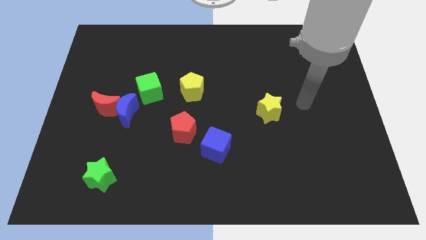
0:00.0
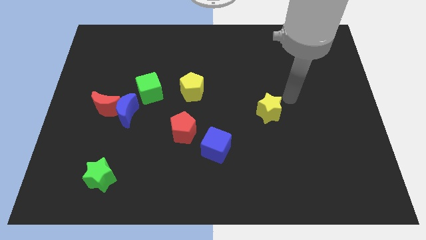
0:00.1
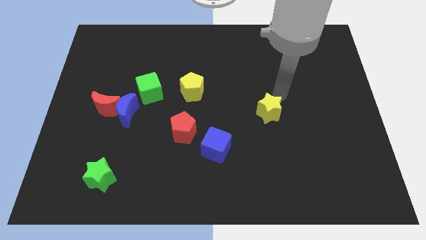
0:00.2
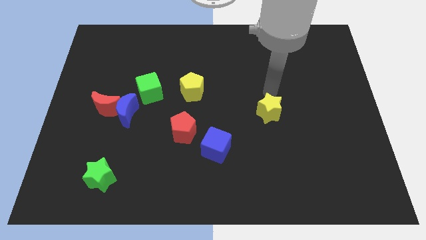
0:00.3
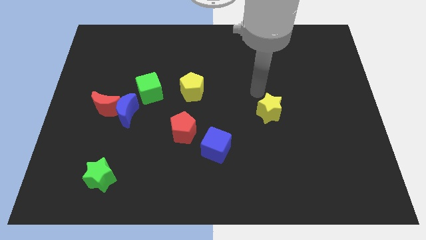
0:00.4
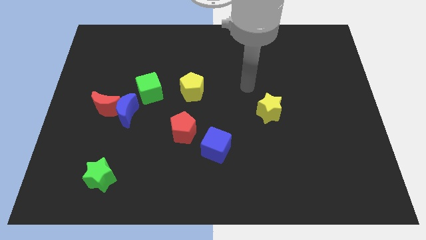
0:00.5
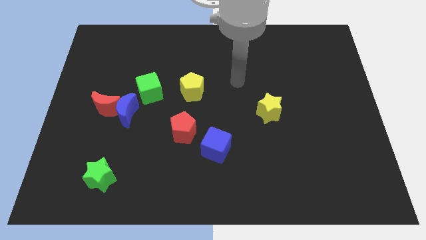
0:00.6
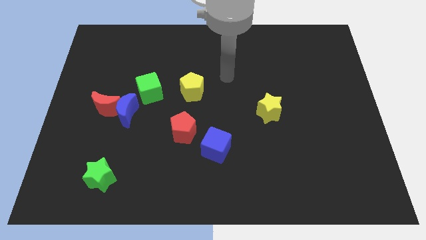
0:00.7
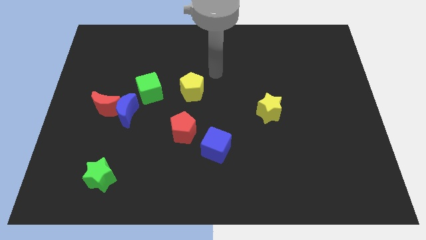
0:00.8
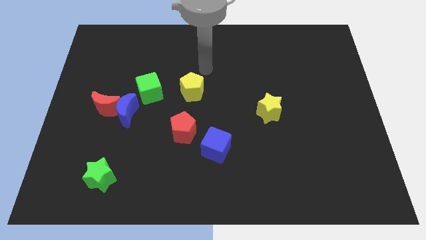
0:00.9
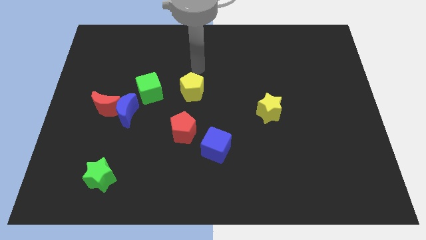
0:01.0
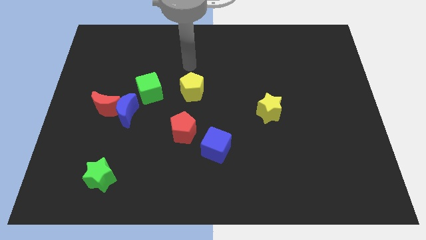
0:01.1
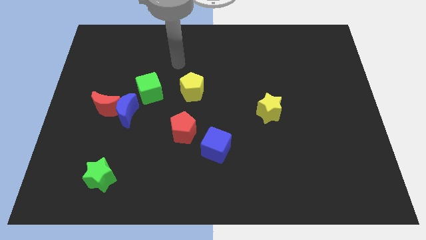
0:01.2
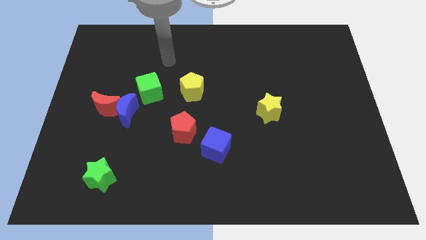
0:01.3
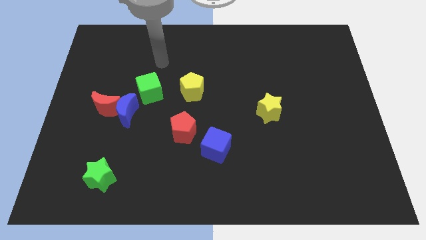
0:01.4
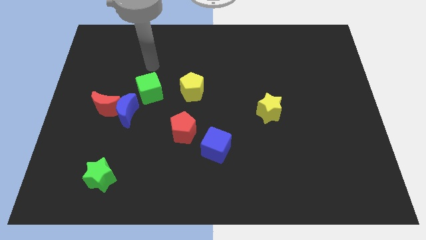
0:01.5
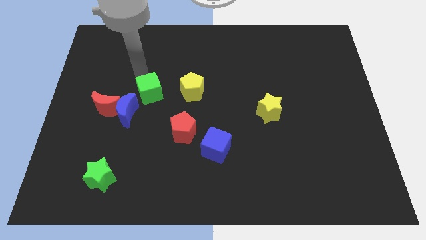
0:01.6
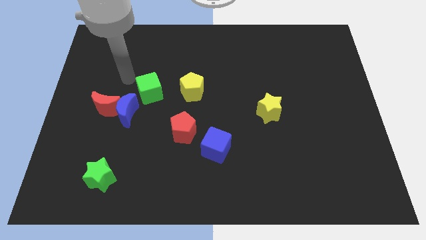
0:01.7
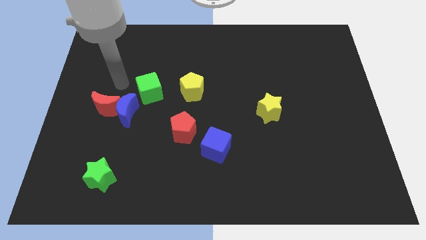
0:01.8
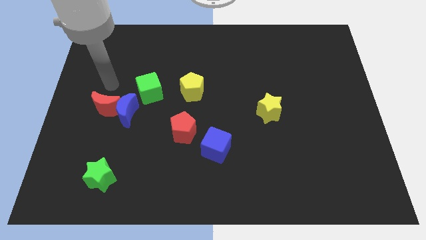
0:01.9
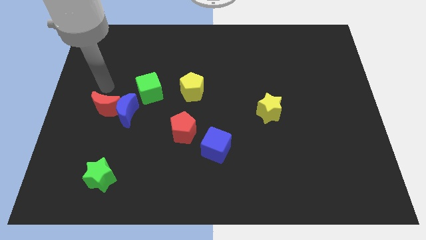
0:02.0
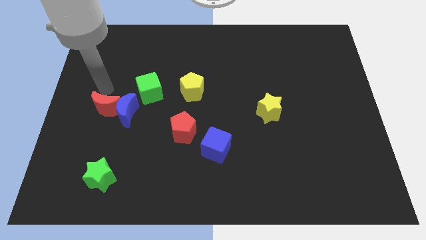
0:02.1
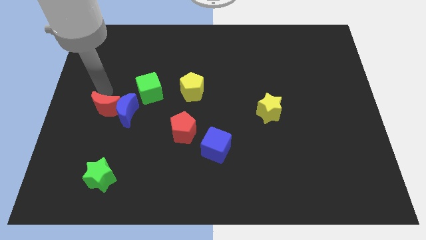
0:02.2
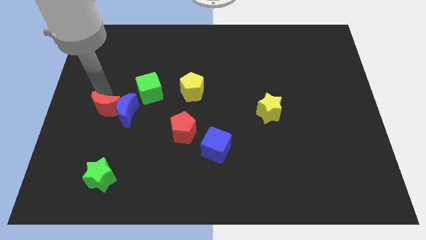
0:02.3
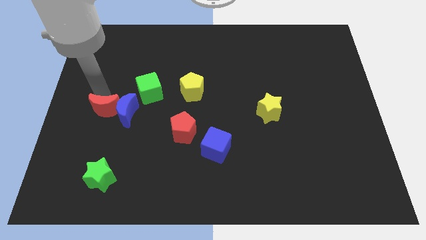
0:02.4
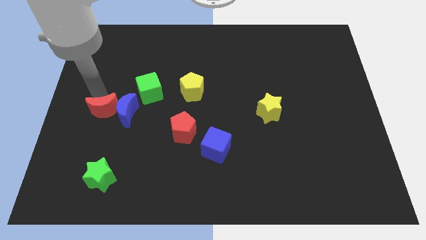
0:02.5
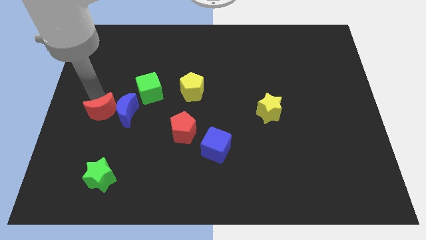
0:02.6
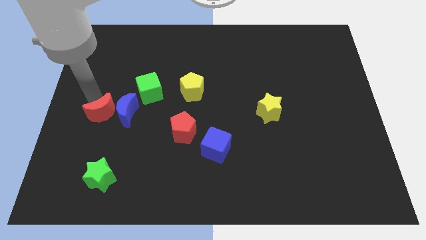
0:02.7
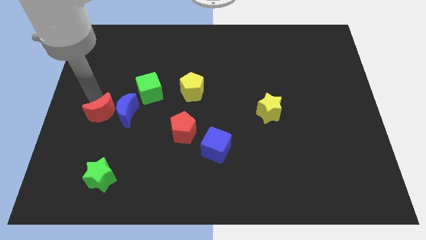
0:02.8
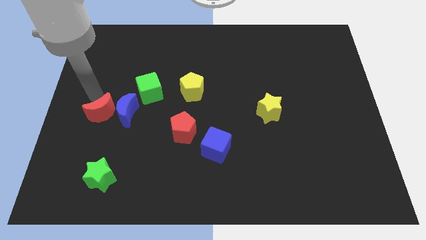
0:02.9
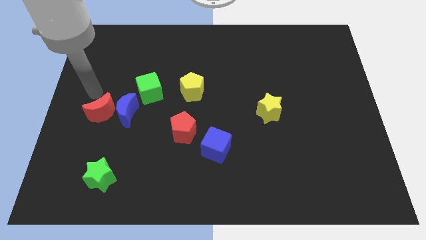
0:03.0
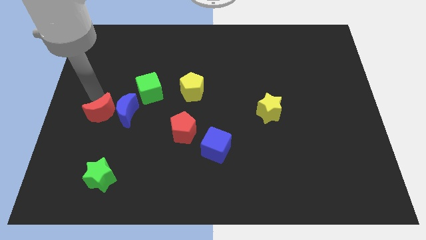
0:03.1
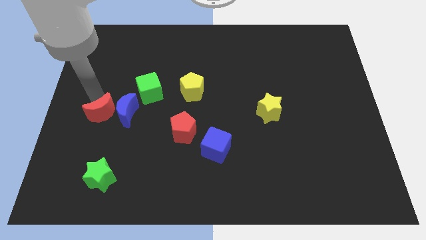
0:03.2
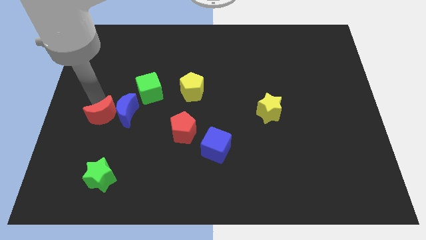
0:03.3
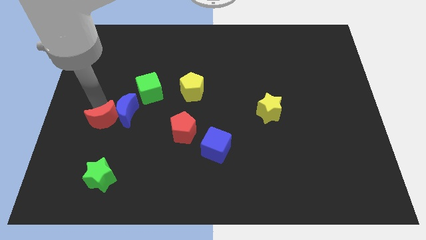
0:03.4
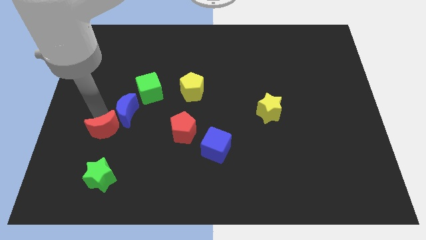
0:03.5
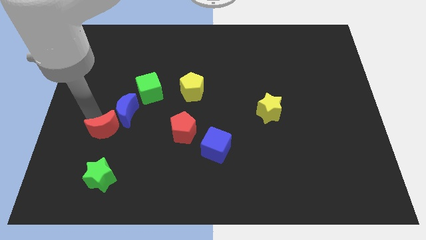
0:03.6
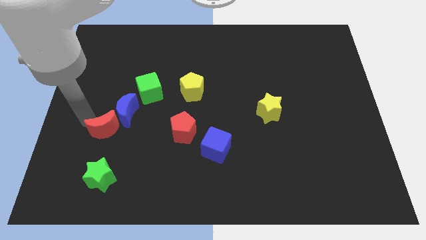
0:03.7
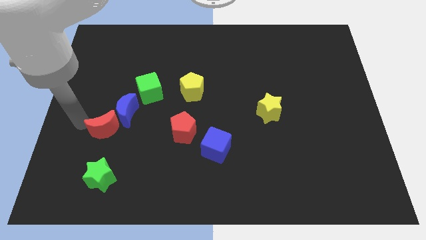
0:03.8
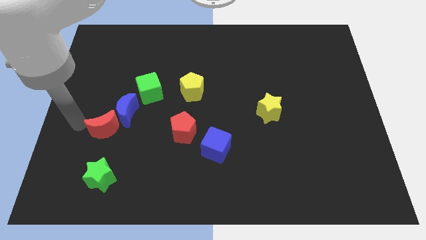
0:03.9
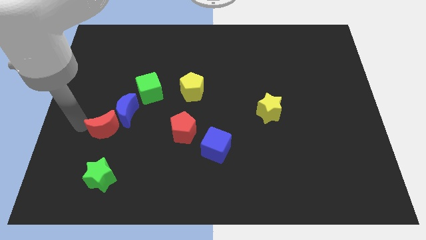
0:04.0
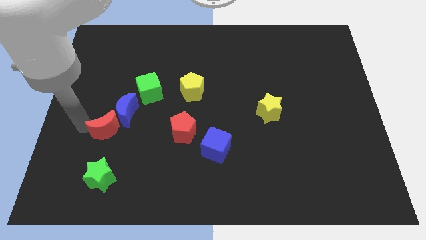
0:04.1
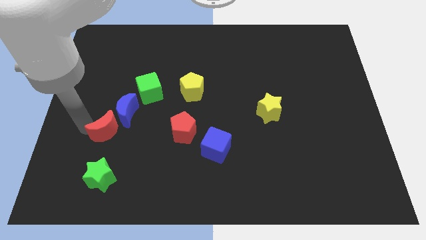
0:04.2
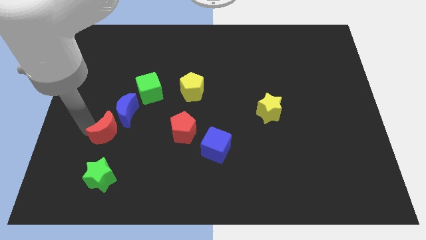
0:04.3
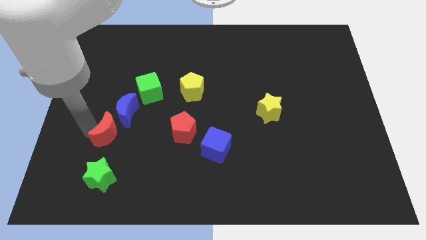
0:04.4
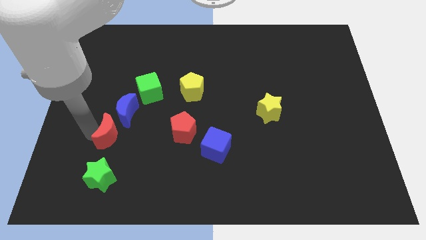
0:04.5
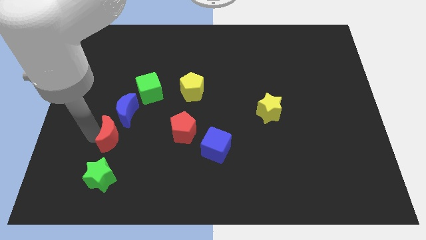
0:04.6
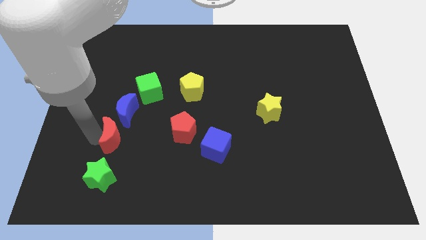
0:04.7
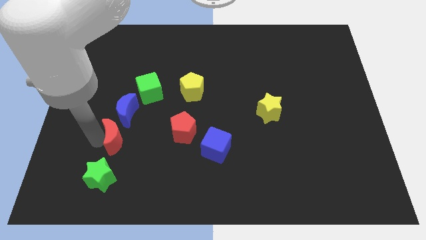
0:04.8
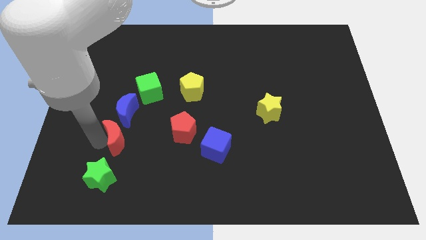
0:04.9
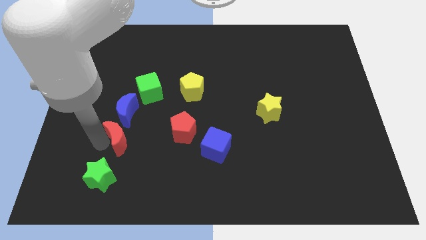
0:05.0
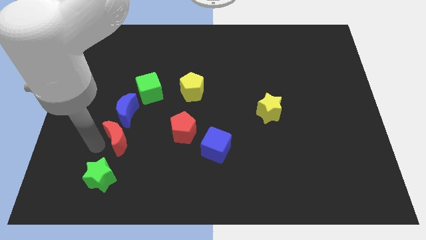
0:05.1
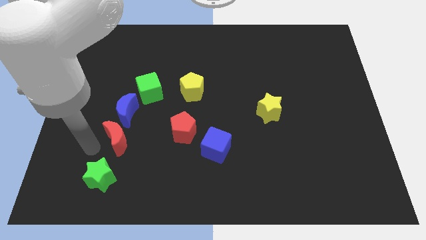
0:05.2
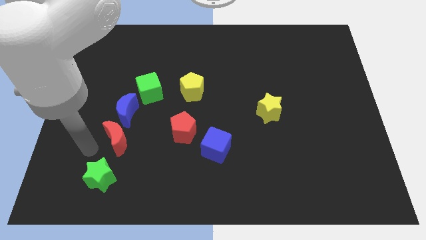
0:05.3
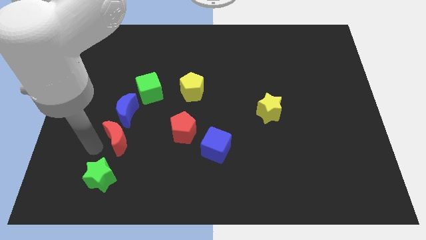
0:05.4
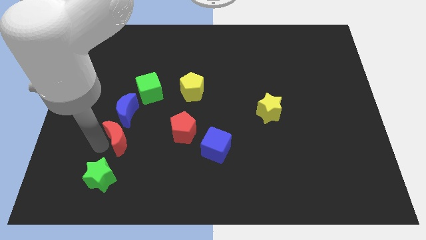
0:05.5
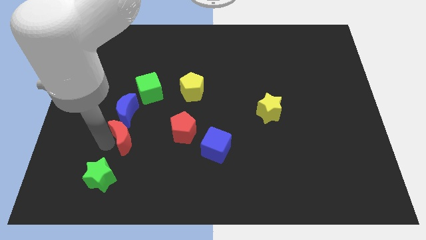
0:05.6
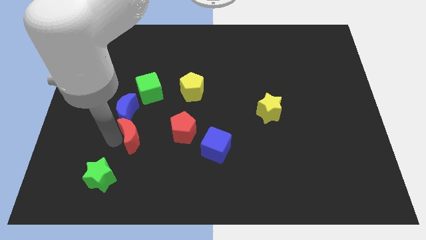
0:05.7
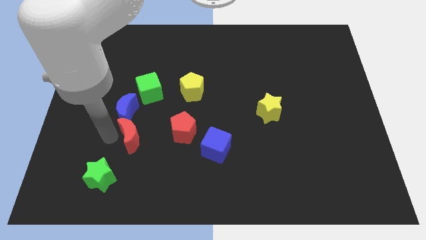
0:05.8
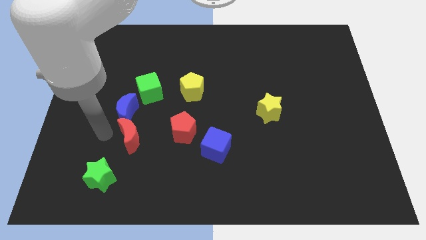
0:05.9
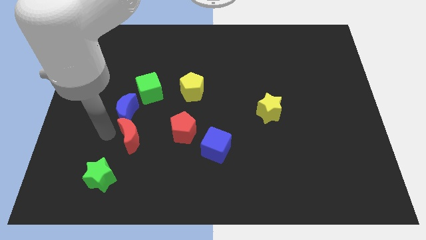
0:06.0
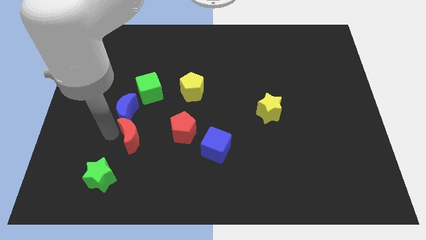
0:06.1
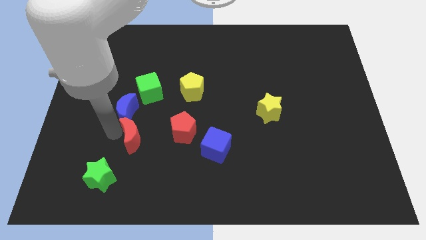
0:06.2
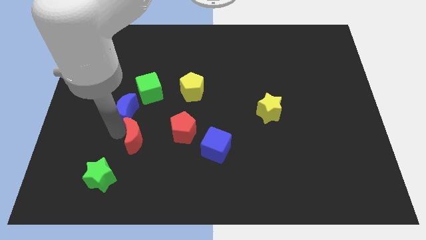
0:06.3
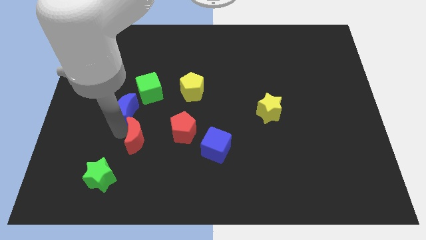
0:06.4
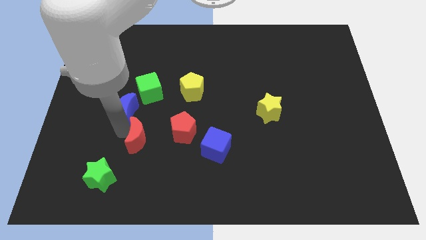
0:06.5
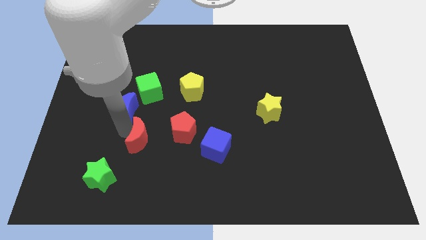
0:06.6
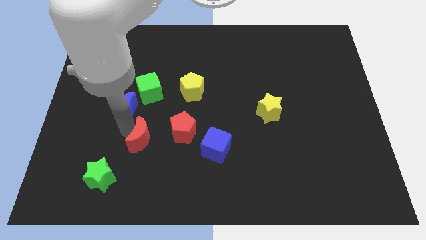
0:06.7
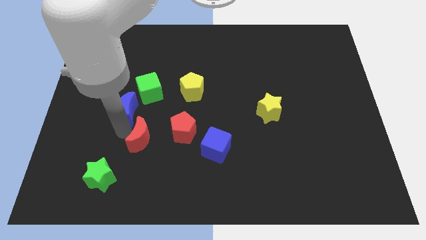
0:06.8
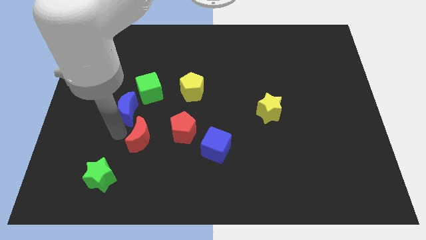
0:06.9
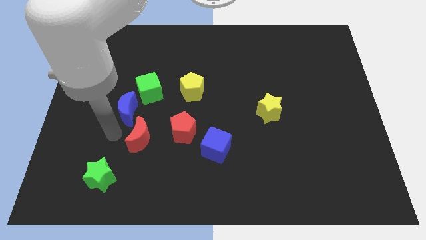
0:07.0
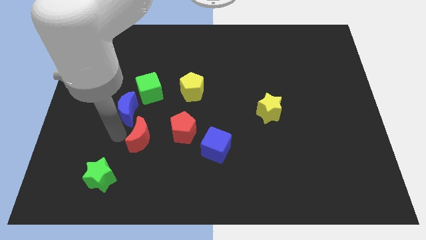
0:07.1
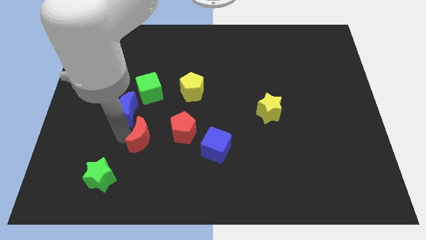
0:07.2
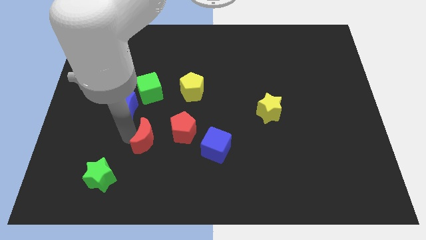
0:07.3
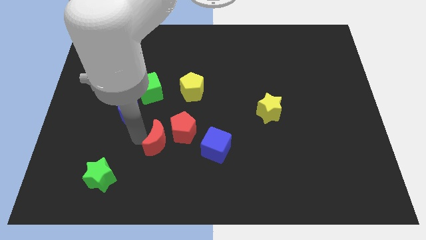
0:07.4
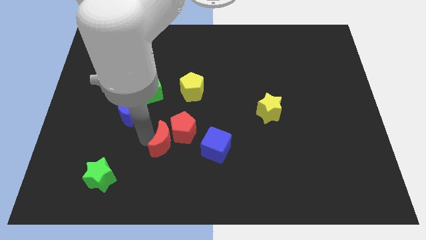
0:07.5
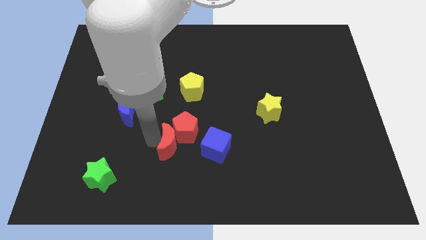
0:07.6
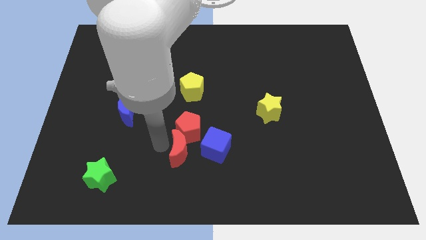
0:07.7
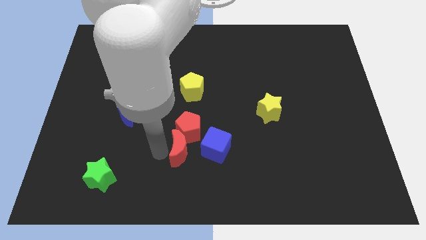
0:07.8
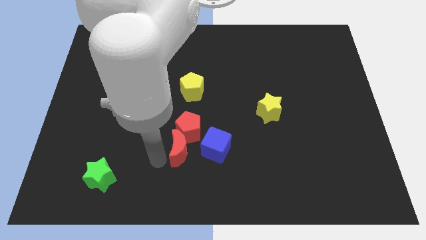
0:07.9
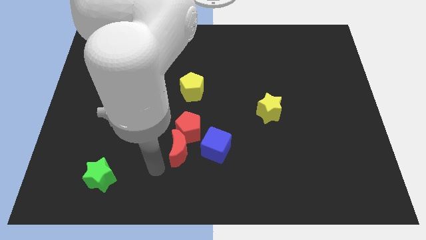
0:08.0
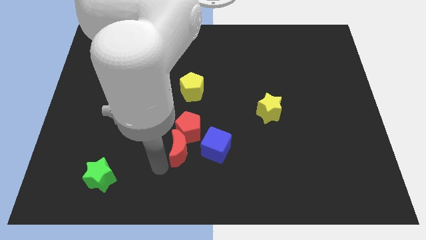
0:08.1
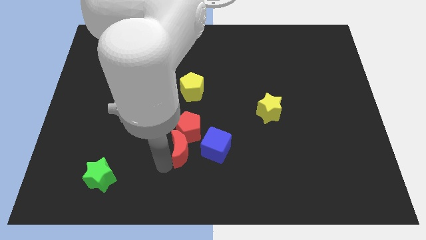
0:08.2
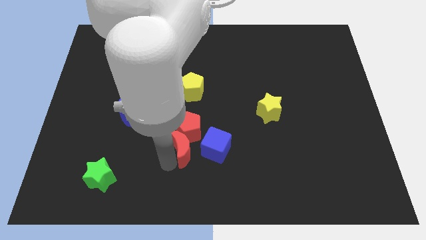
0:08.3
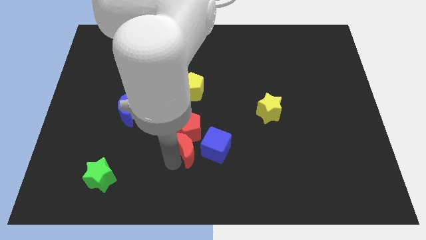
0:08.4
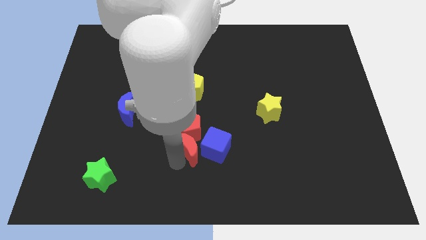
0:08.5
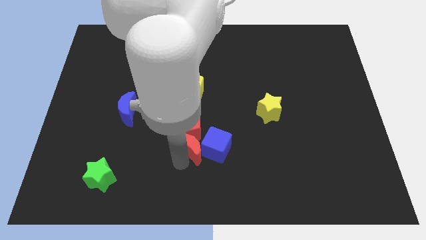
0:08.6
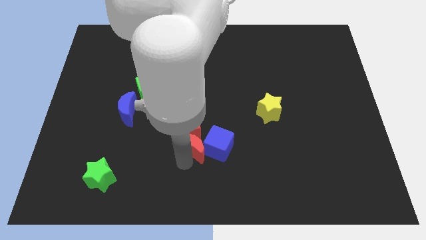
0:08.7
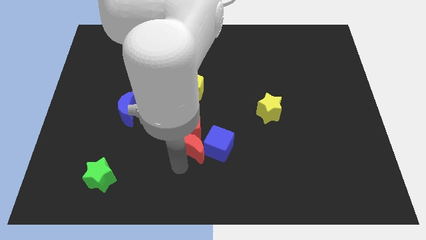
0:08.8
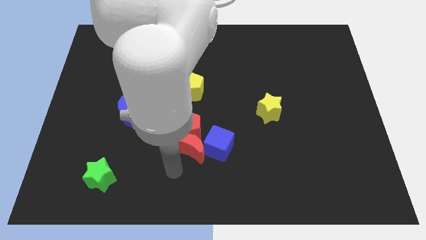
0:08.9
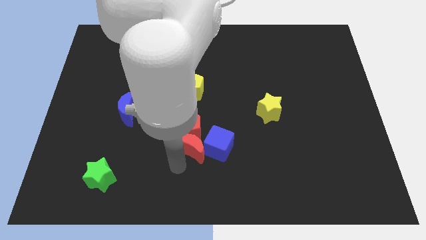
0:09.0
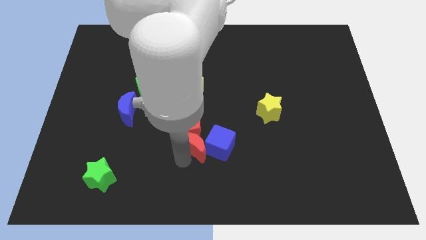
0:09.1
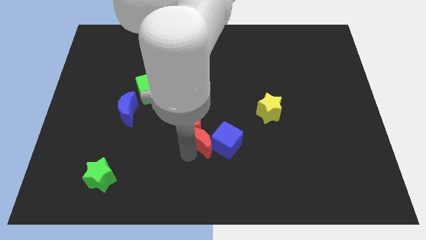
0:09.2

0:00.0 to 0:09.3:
slide the red moon just right of the red pentagon
